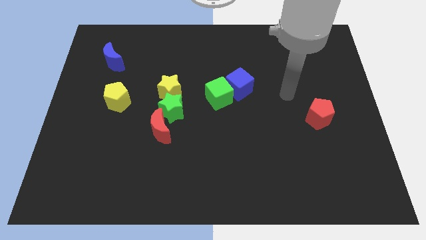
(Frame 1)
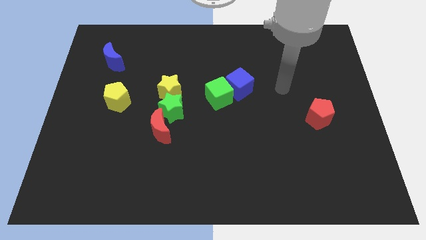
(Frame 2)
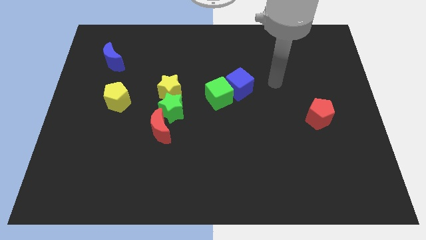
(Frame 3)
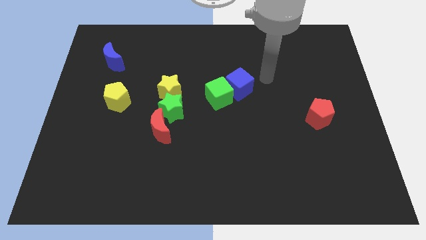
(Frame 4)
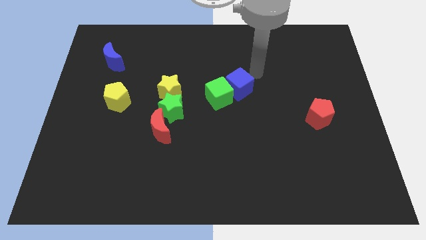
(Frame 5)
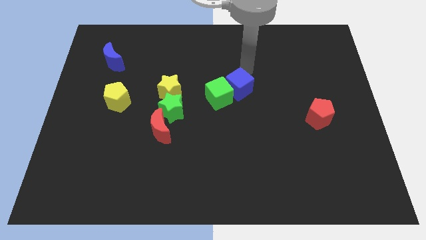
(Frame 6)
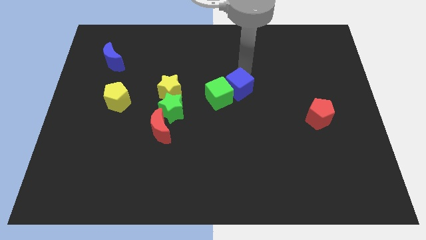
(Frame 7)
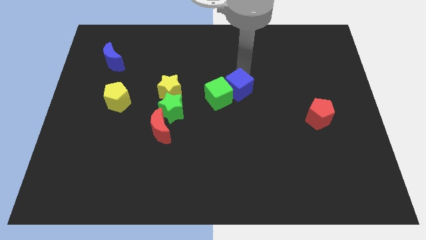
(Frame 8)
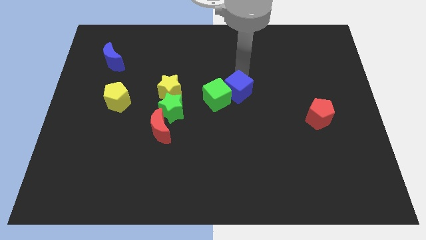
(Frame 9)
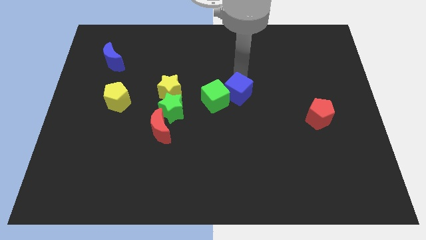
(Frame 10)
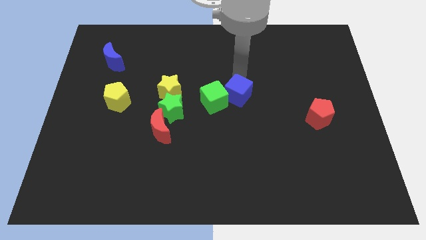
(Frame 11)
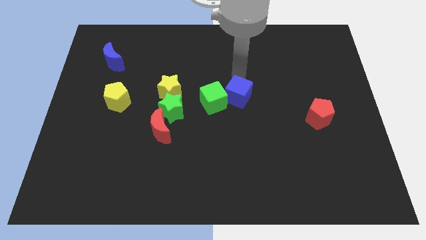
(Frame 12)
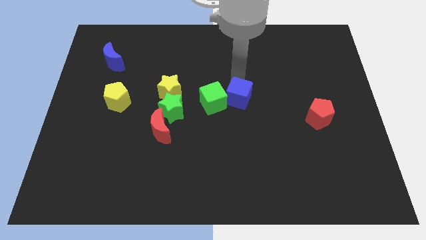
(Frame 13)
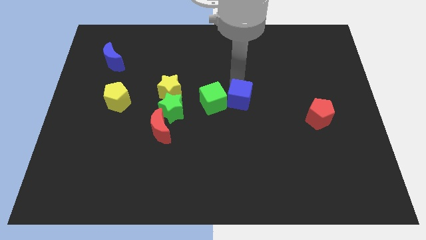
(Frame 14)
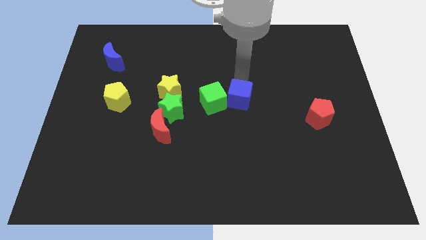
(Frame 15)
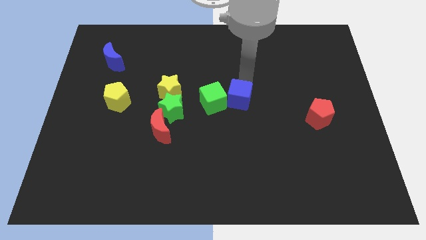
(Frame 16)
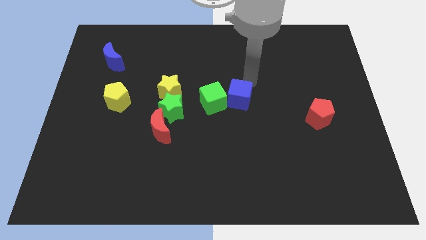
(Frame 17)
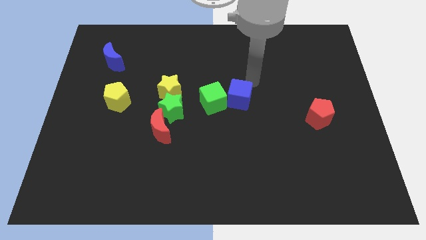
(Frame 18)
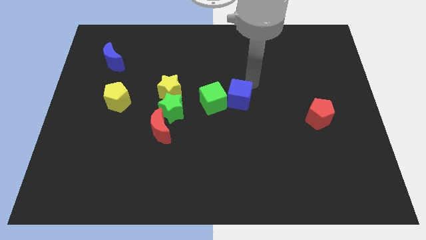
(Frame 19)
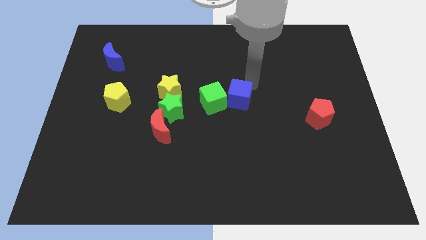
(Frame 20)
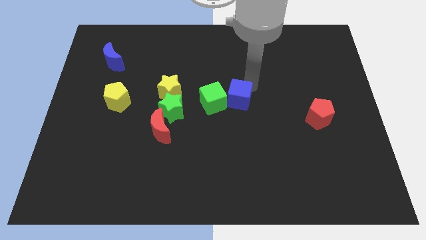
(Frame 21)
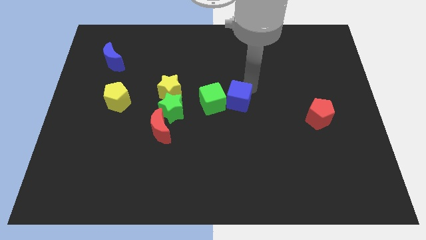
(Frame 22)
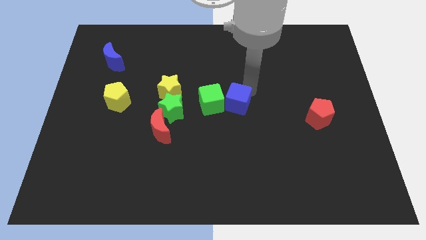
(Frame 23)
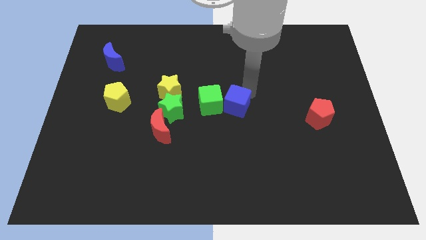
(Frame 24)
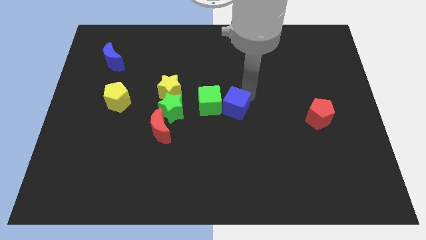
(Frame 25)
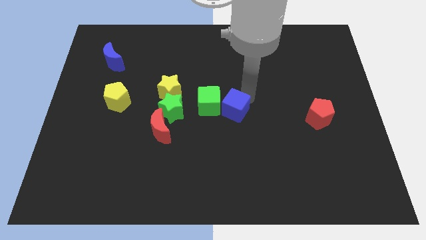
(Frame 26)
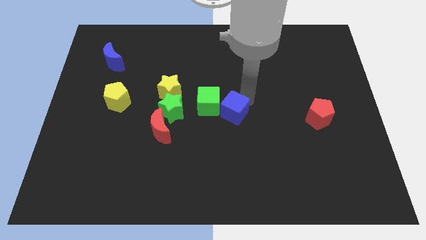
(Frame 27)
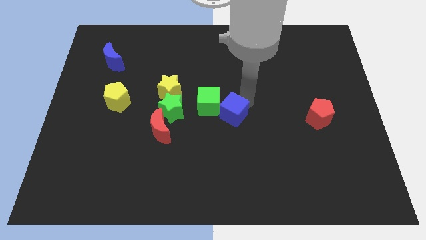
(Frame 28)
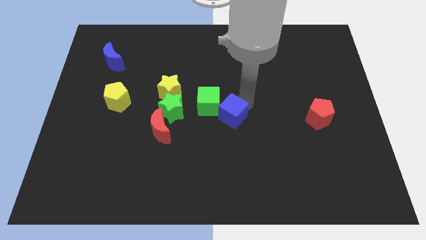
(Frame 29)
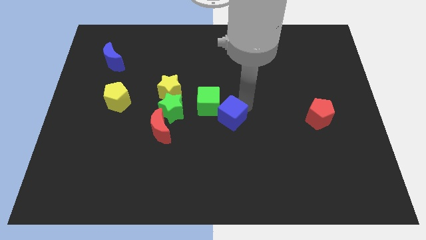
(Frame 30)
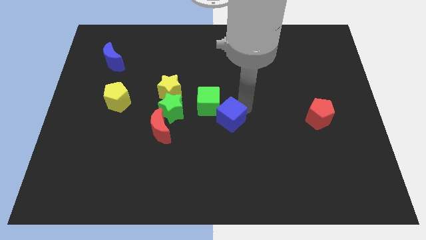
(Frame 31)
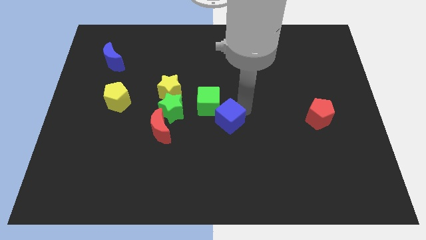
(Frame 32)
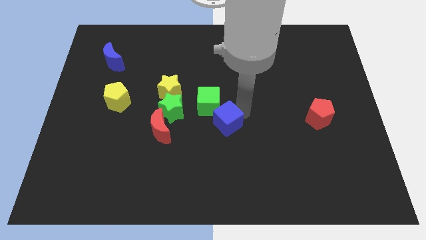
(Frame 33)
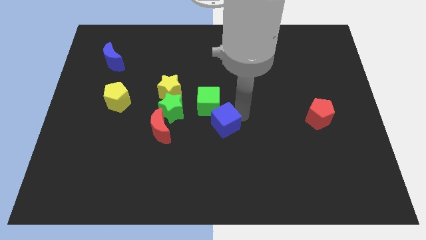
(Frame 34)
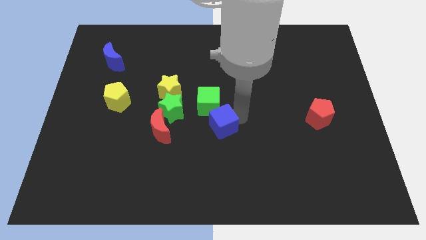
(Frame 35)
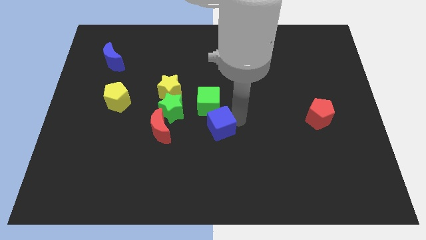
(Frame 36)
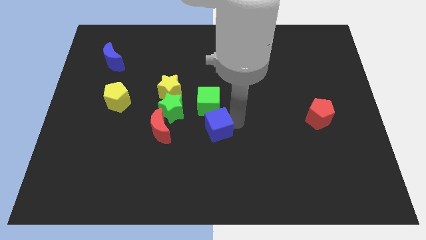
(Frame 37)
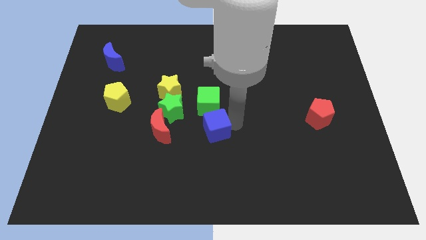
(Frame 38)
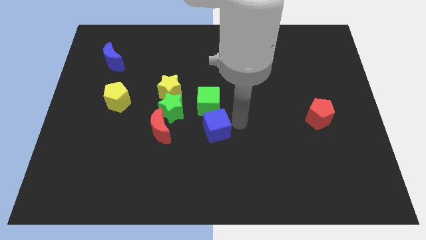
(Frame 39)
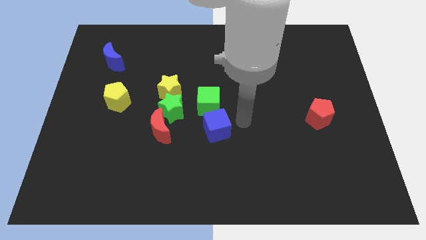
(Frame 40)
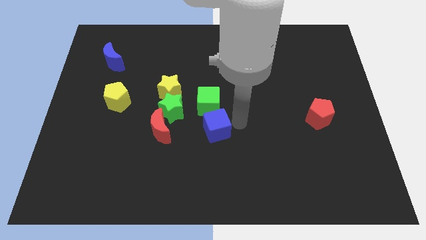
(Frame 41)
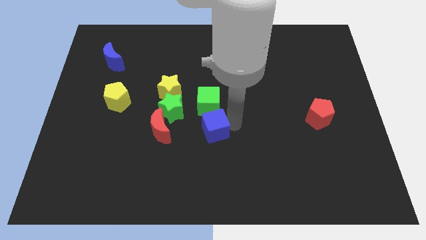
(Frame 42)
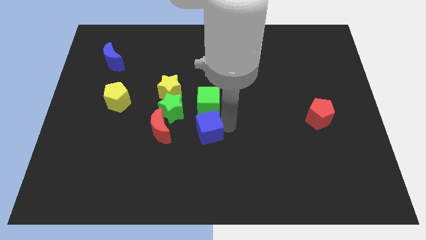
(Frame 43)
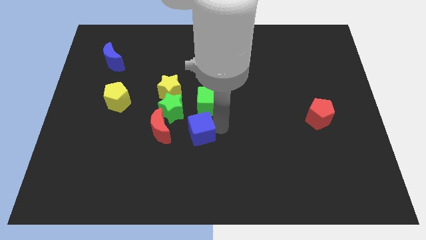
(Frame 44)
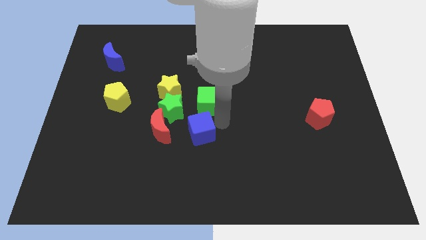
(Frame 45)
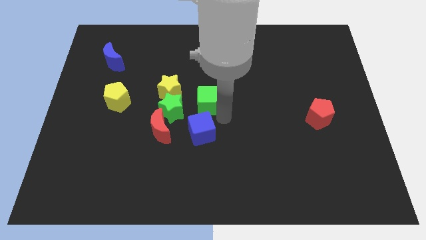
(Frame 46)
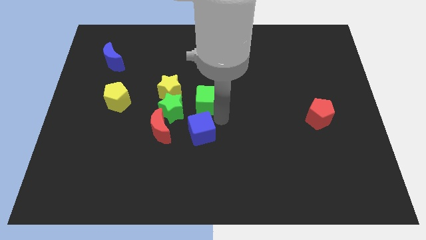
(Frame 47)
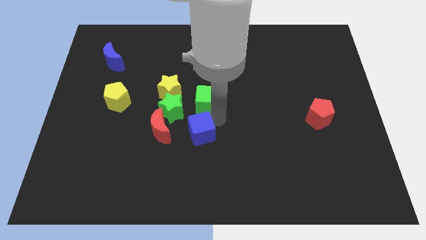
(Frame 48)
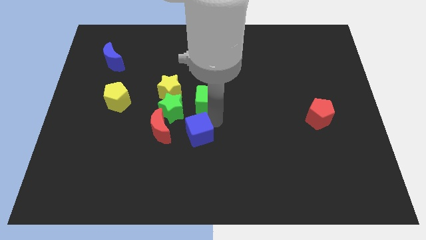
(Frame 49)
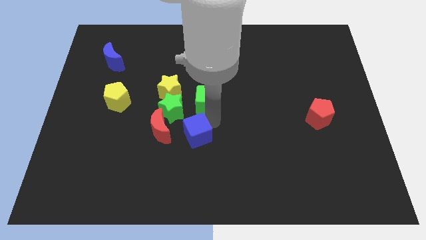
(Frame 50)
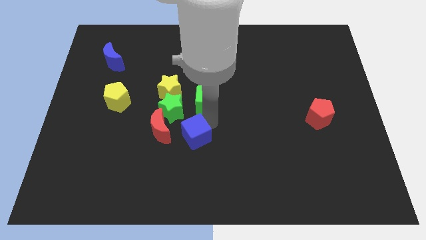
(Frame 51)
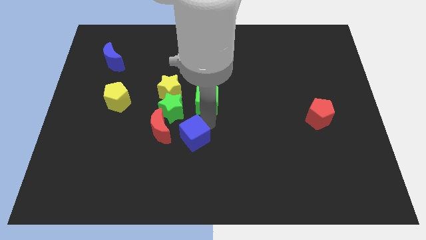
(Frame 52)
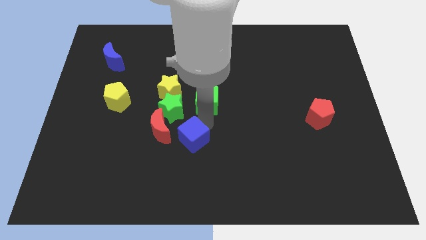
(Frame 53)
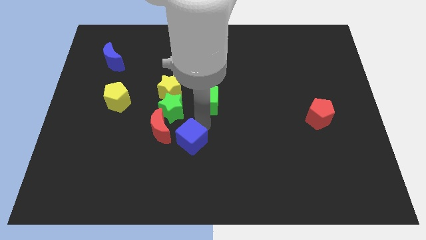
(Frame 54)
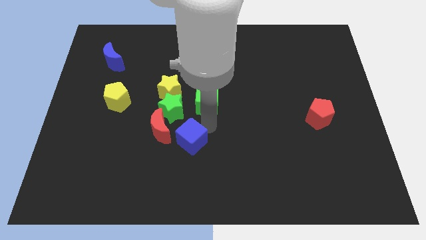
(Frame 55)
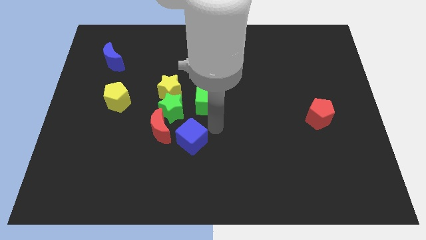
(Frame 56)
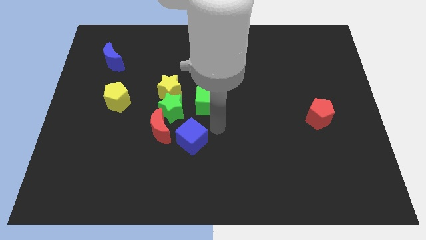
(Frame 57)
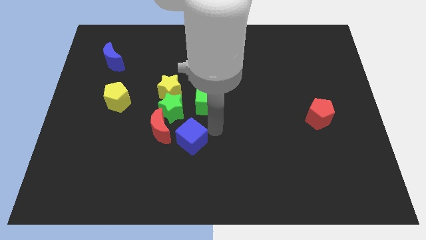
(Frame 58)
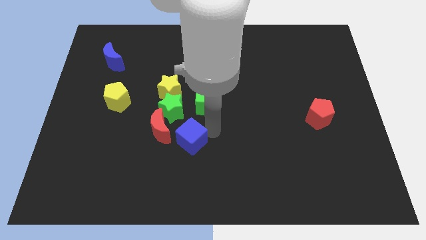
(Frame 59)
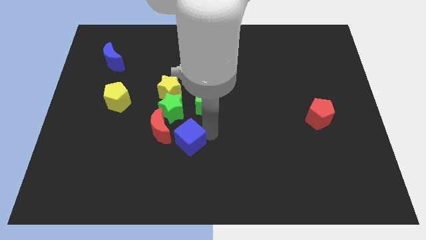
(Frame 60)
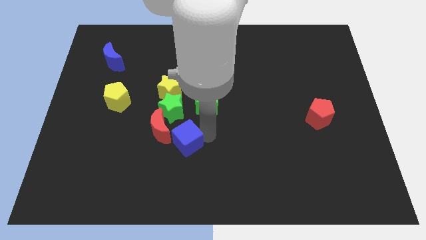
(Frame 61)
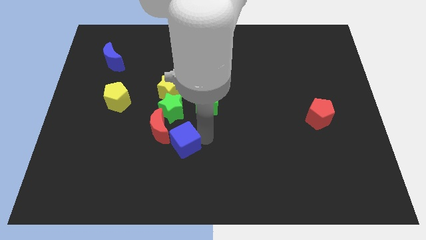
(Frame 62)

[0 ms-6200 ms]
slide the blue cube down and left diagonally

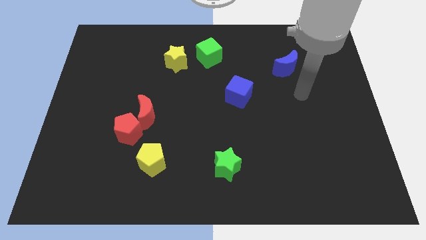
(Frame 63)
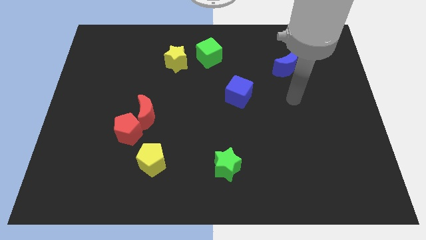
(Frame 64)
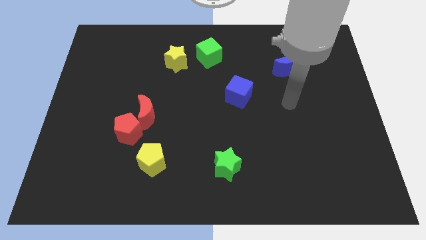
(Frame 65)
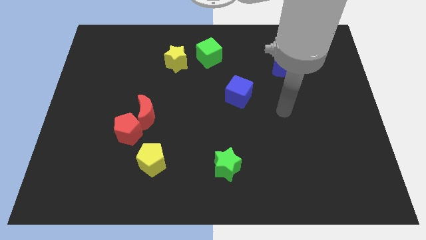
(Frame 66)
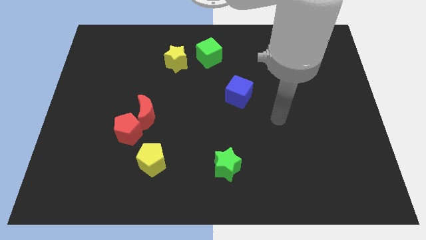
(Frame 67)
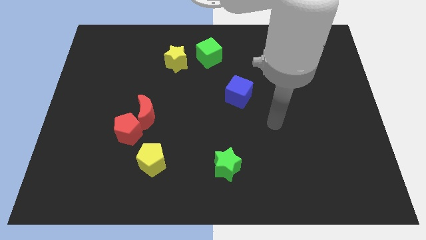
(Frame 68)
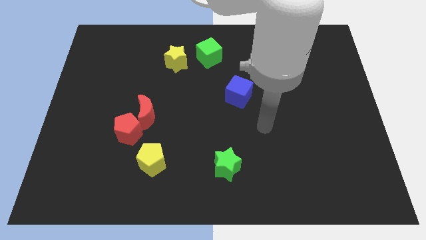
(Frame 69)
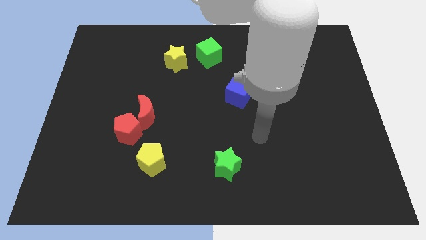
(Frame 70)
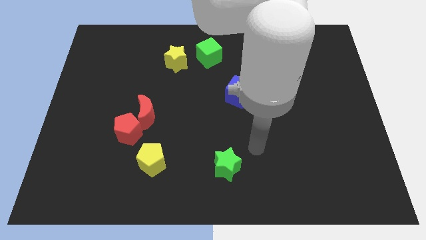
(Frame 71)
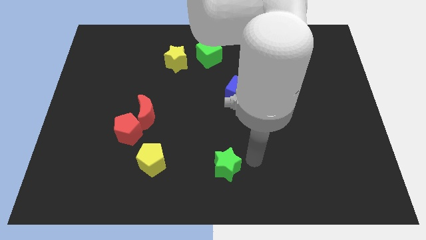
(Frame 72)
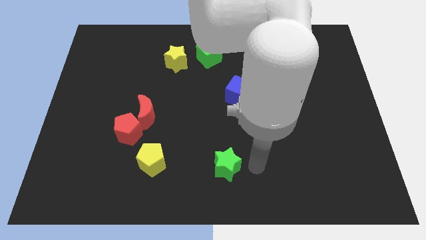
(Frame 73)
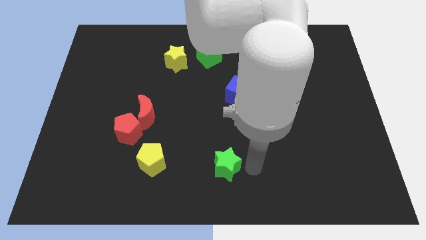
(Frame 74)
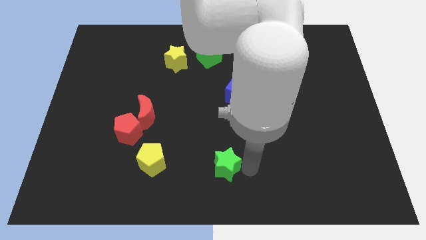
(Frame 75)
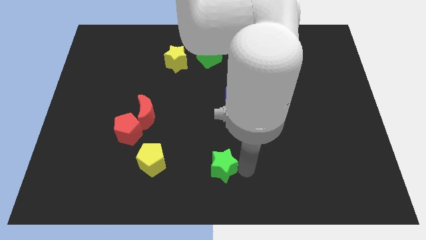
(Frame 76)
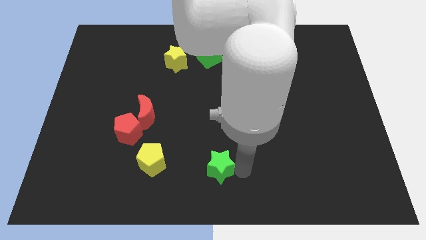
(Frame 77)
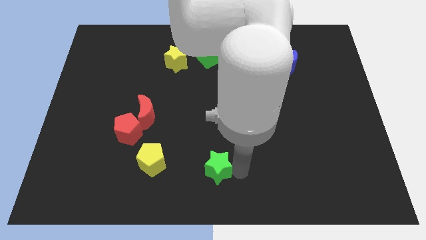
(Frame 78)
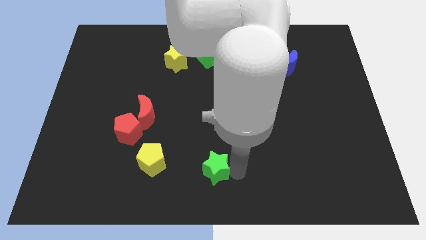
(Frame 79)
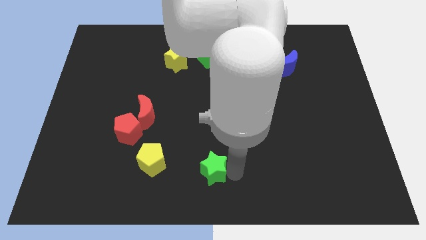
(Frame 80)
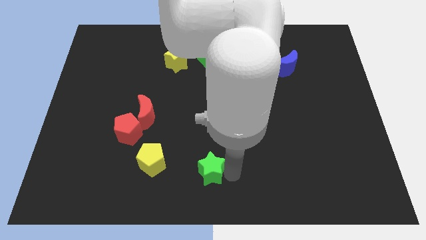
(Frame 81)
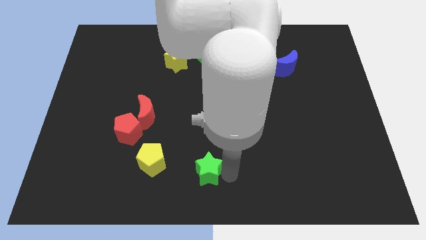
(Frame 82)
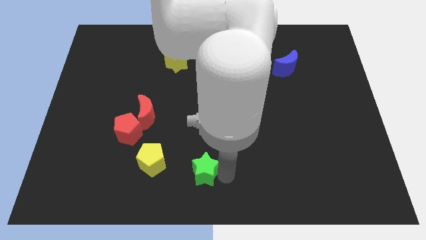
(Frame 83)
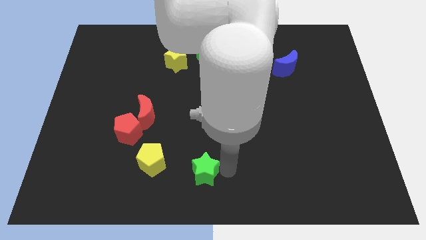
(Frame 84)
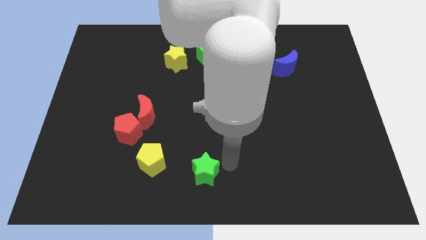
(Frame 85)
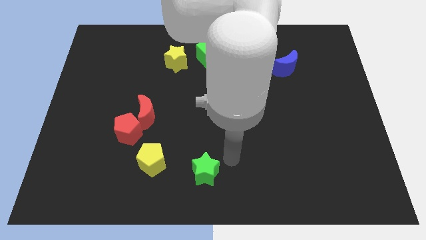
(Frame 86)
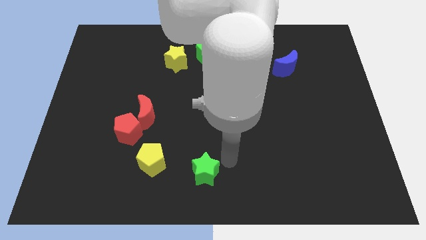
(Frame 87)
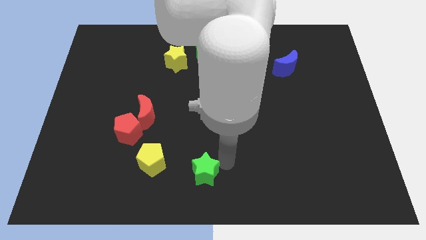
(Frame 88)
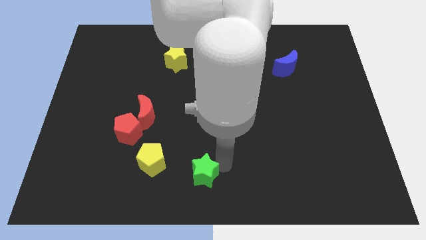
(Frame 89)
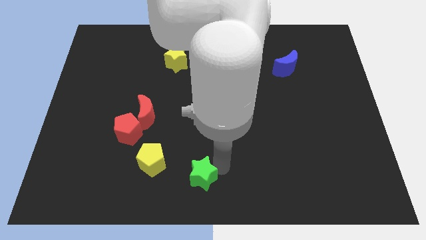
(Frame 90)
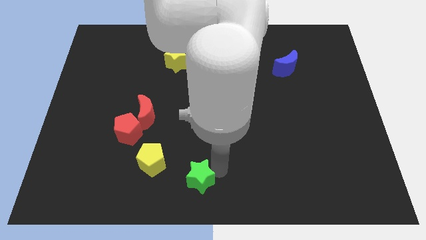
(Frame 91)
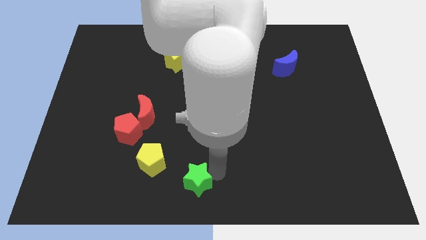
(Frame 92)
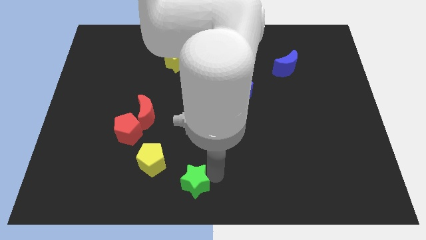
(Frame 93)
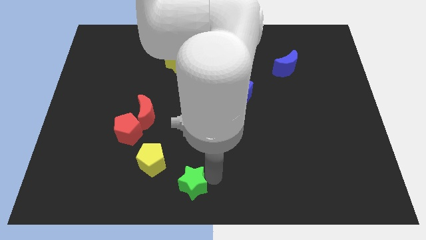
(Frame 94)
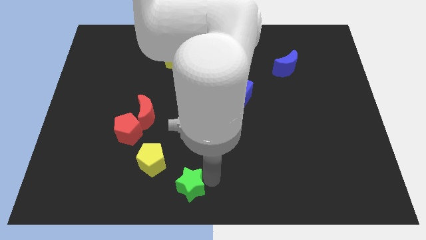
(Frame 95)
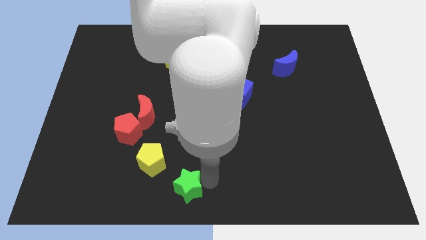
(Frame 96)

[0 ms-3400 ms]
slide the green star a little left
